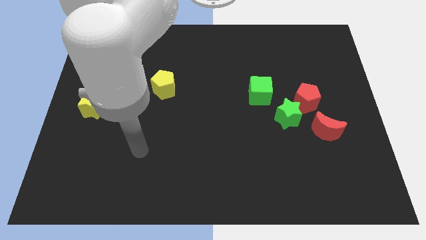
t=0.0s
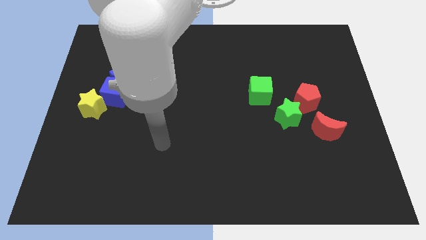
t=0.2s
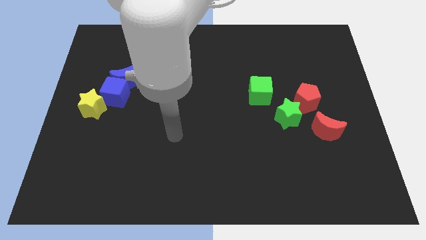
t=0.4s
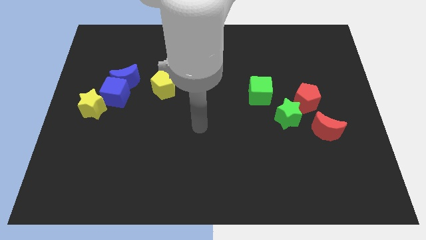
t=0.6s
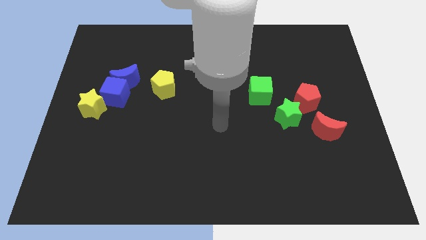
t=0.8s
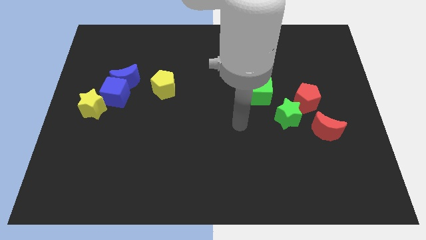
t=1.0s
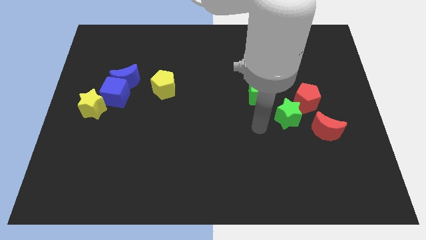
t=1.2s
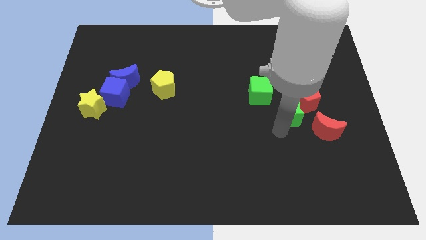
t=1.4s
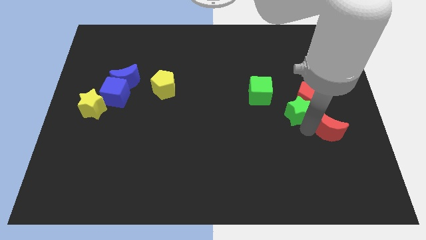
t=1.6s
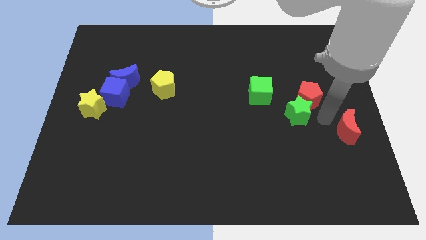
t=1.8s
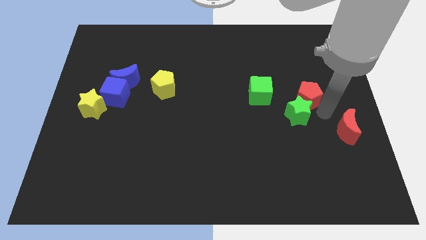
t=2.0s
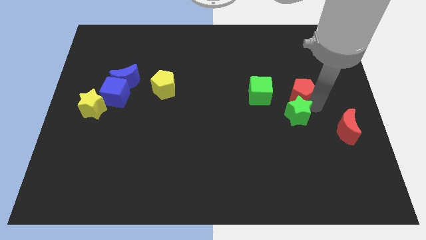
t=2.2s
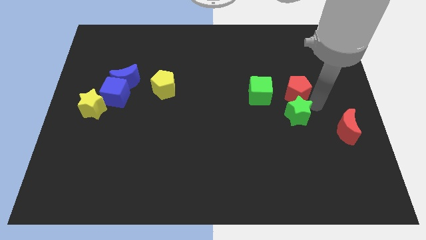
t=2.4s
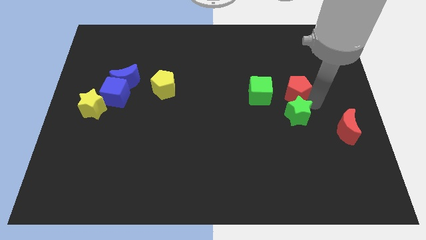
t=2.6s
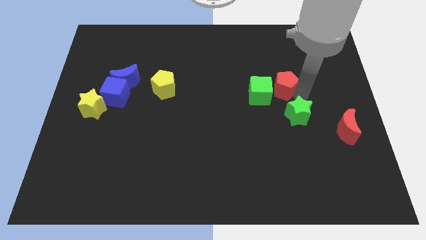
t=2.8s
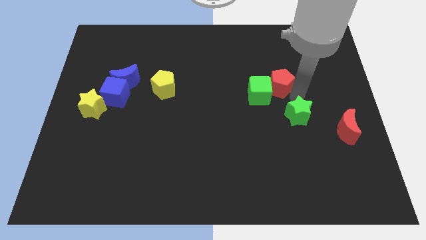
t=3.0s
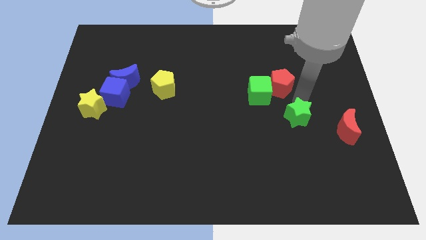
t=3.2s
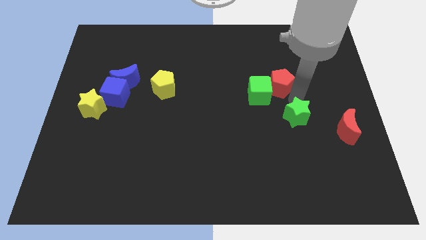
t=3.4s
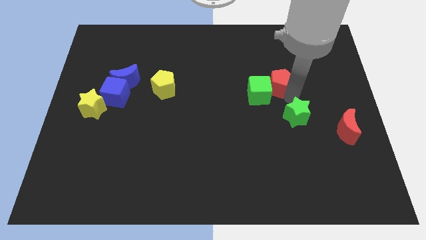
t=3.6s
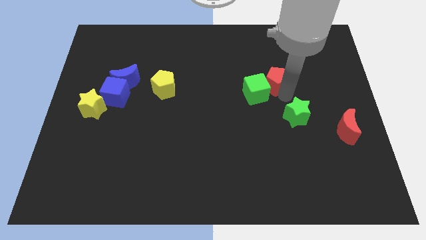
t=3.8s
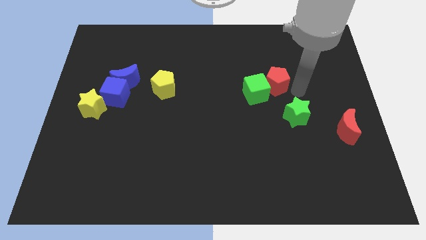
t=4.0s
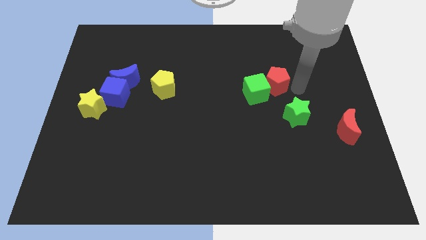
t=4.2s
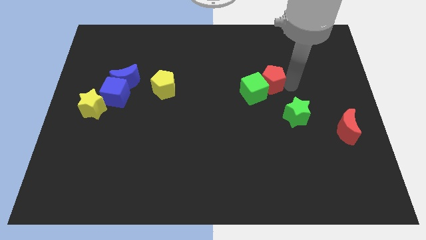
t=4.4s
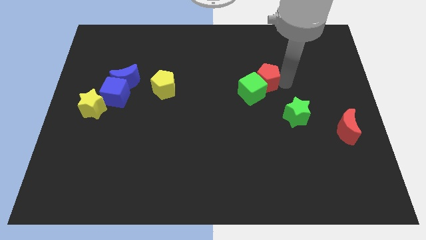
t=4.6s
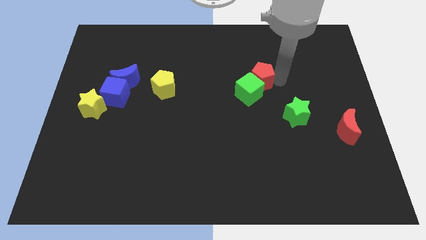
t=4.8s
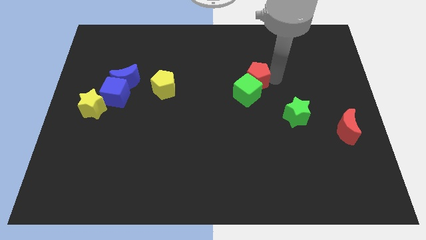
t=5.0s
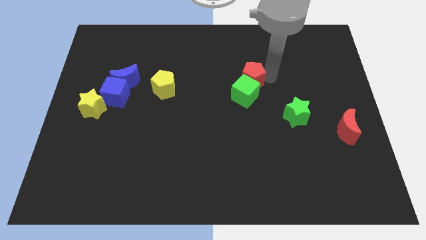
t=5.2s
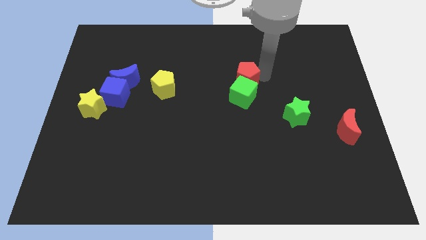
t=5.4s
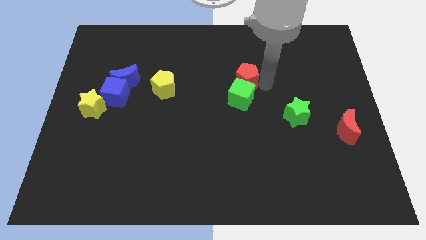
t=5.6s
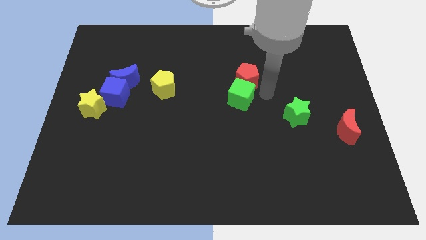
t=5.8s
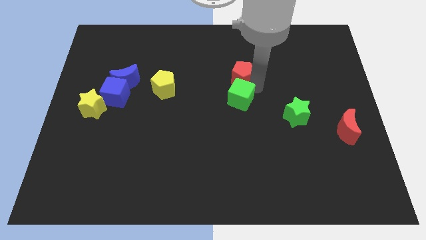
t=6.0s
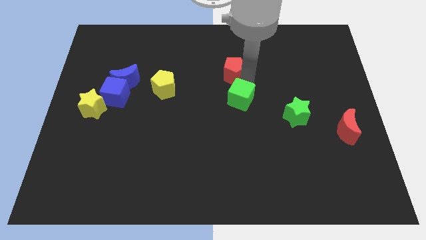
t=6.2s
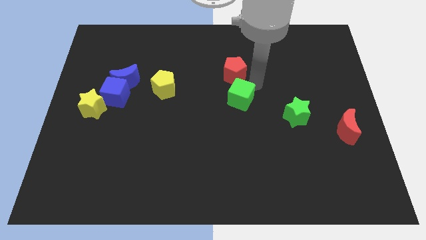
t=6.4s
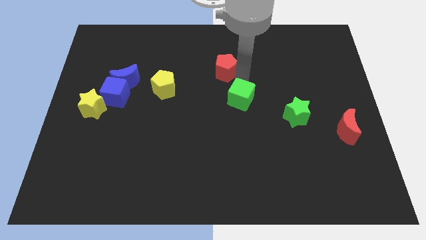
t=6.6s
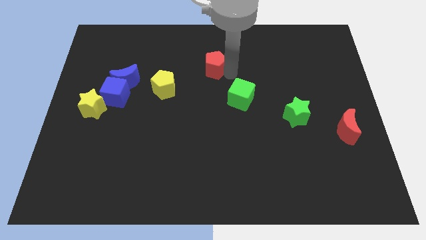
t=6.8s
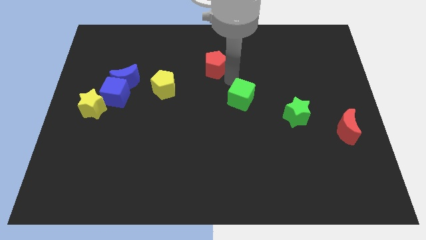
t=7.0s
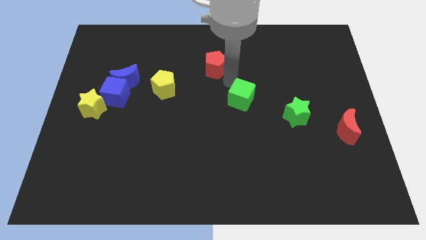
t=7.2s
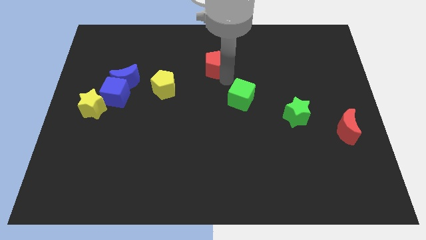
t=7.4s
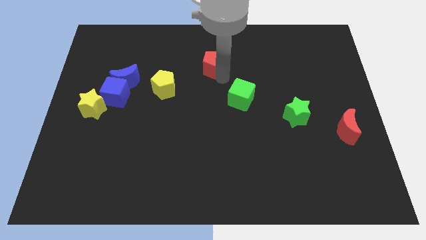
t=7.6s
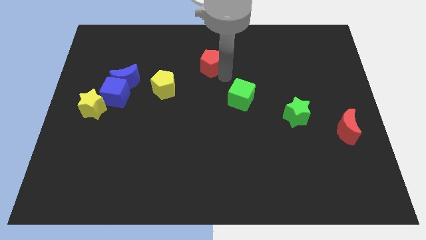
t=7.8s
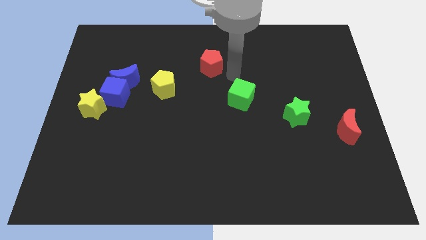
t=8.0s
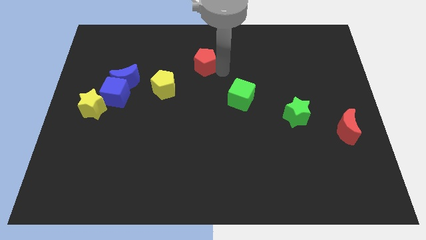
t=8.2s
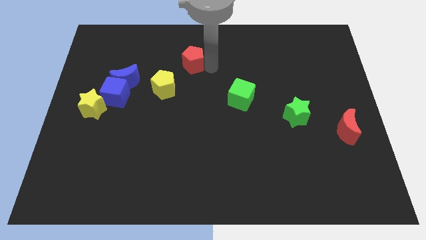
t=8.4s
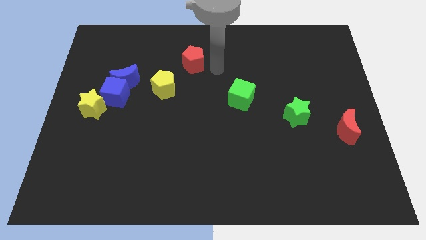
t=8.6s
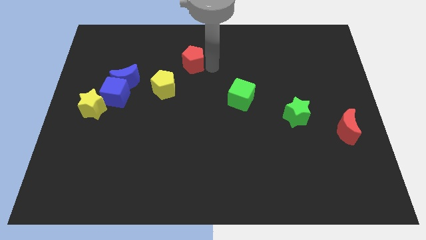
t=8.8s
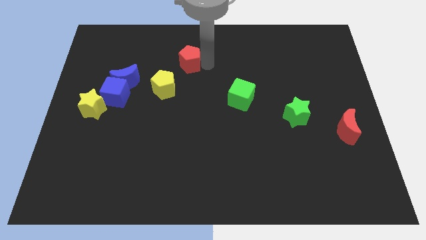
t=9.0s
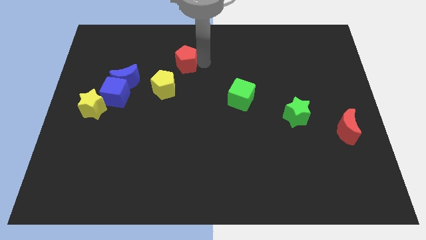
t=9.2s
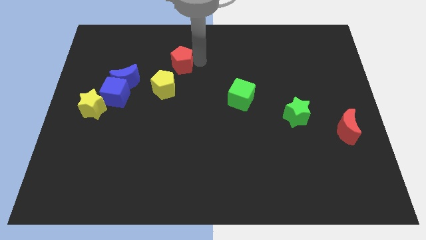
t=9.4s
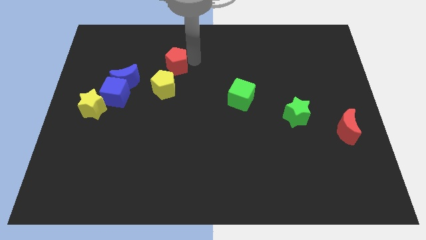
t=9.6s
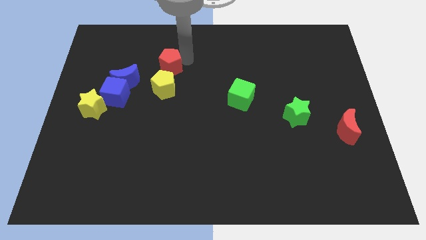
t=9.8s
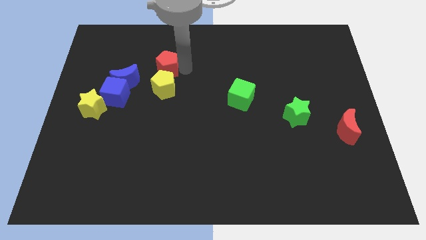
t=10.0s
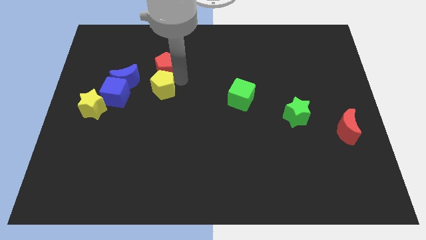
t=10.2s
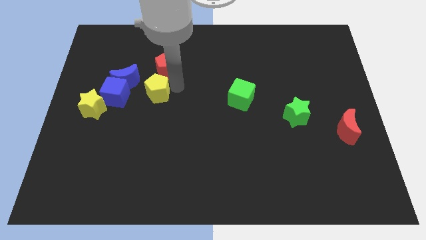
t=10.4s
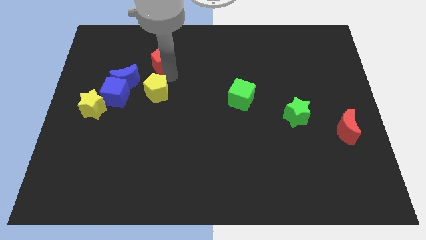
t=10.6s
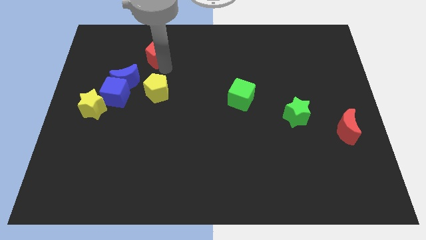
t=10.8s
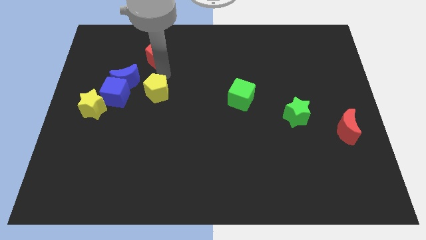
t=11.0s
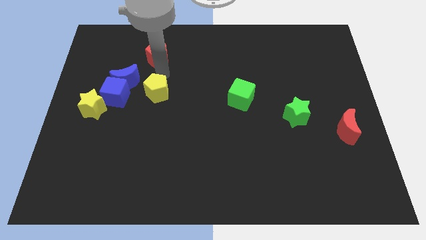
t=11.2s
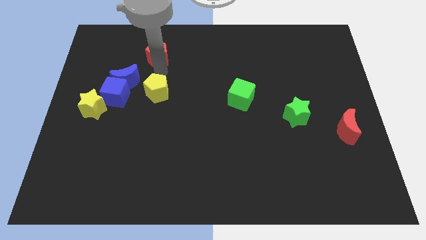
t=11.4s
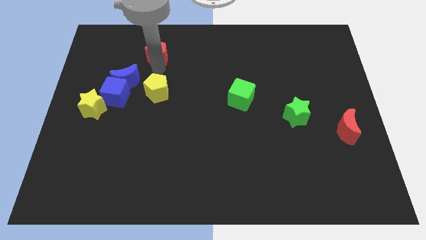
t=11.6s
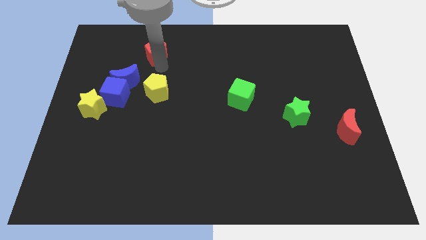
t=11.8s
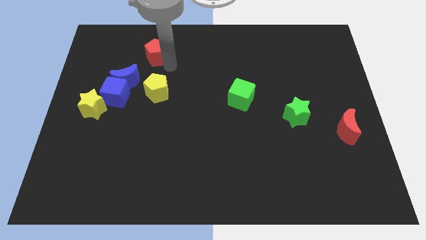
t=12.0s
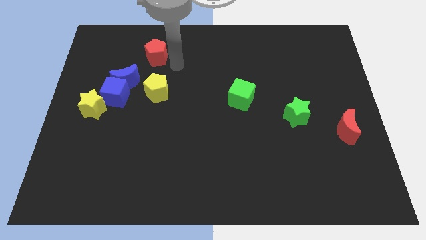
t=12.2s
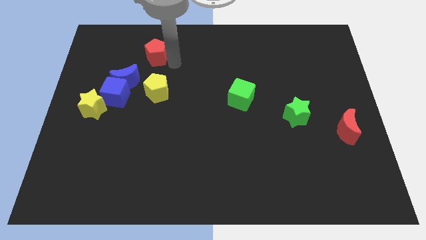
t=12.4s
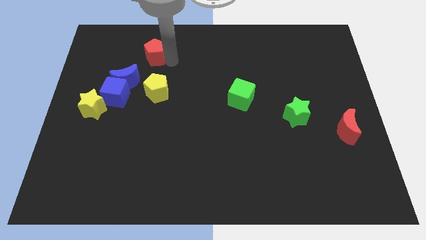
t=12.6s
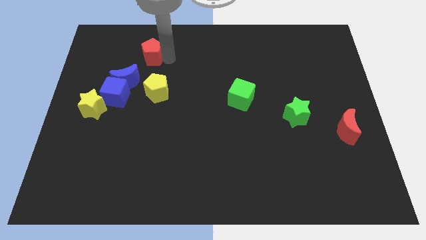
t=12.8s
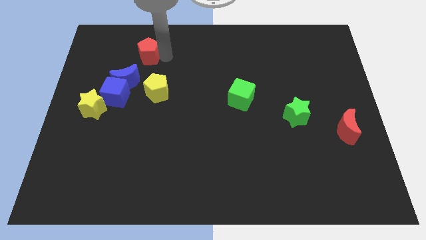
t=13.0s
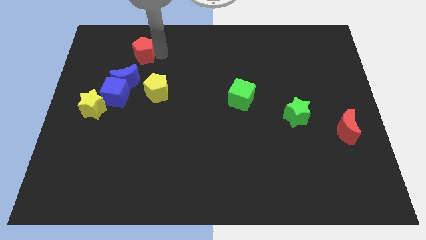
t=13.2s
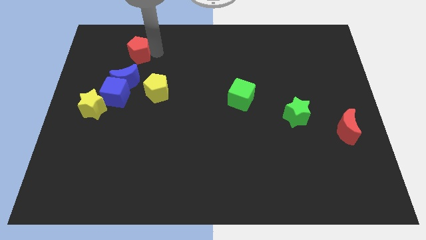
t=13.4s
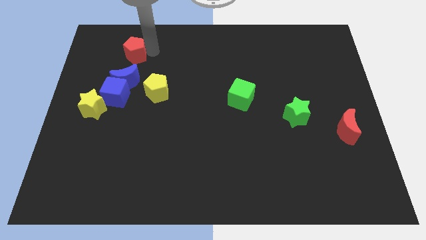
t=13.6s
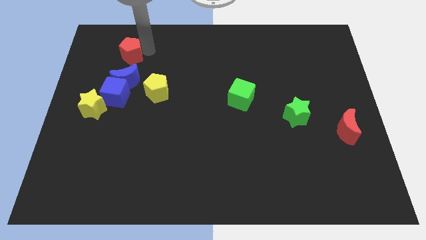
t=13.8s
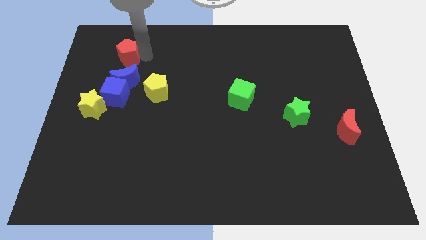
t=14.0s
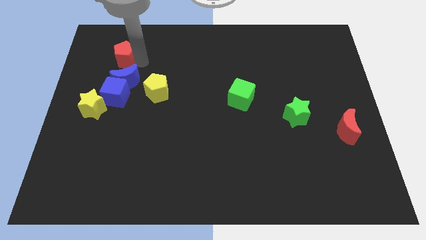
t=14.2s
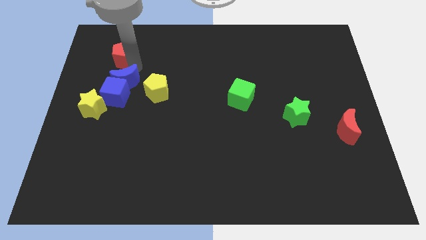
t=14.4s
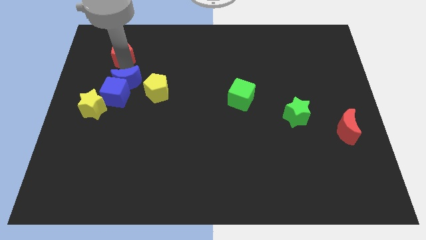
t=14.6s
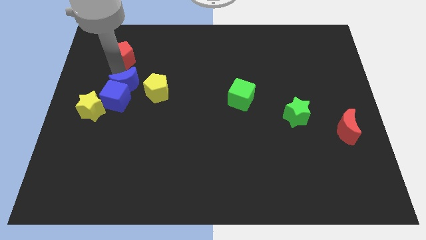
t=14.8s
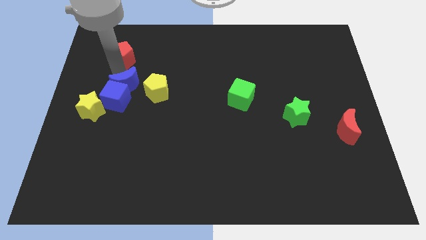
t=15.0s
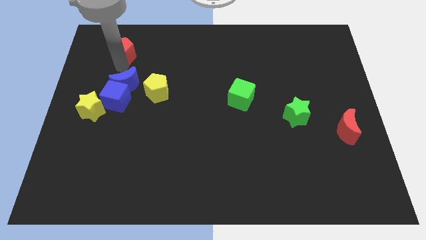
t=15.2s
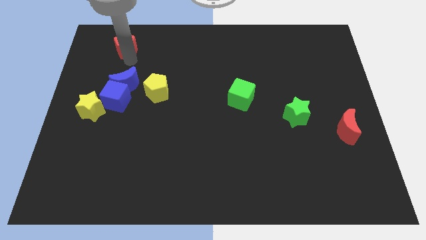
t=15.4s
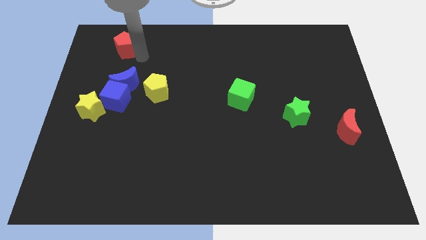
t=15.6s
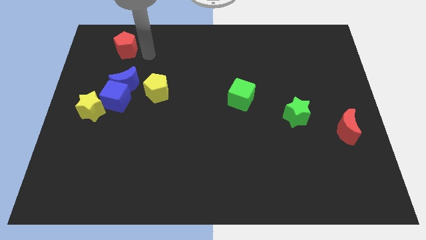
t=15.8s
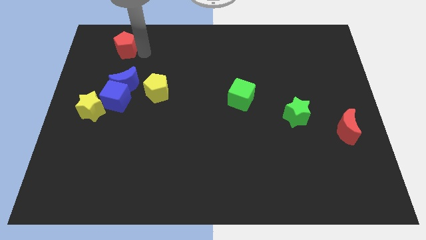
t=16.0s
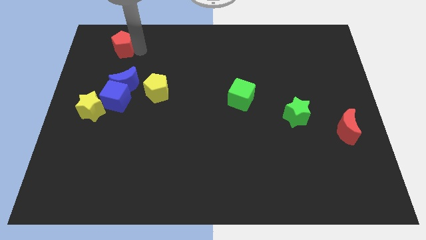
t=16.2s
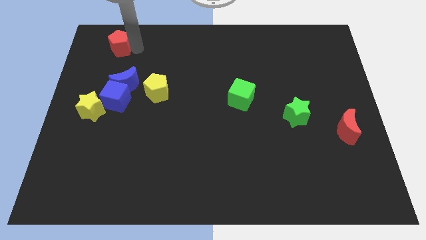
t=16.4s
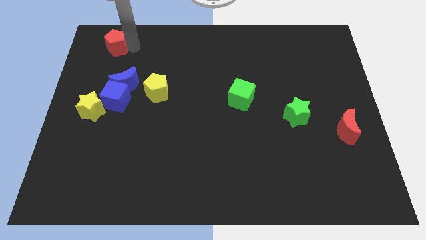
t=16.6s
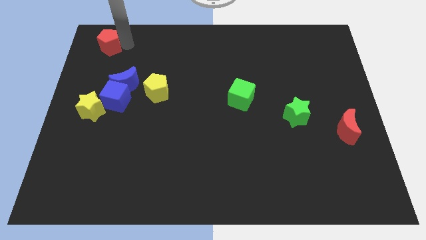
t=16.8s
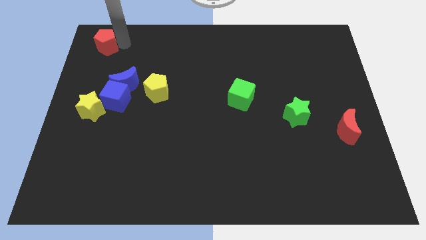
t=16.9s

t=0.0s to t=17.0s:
slide the red pentagon to the top left of the board
